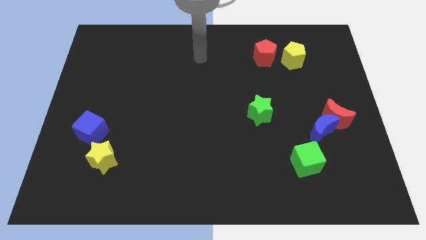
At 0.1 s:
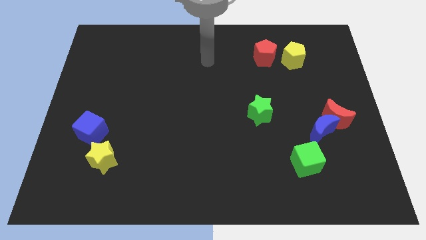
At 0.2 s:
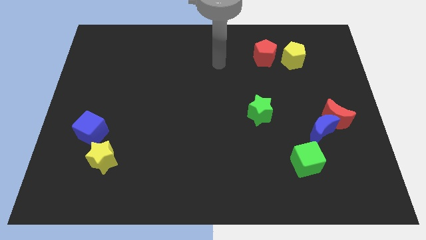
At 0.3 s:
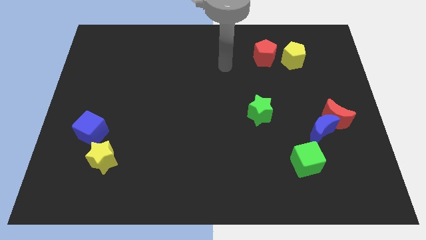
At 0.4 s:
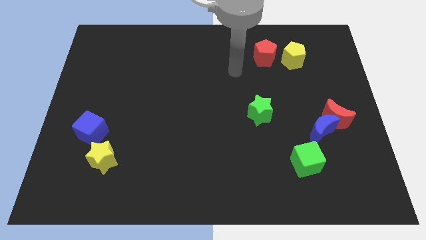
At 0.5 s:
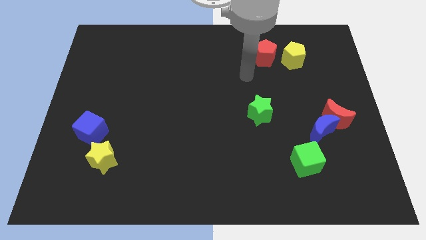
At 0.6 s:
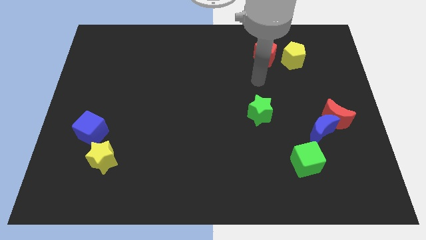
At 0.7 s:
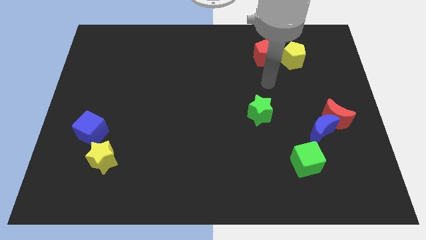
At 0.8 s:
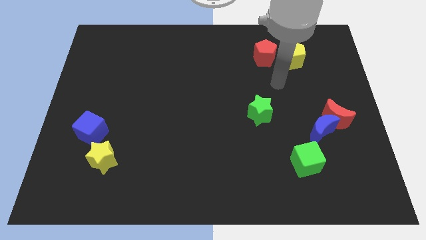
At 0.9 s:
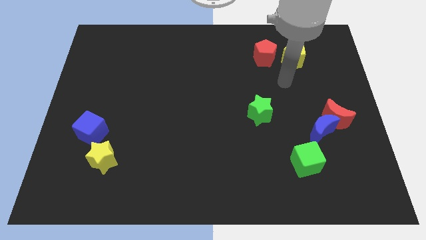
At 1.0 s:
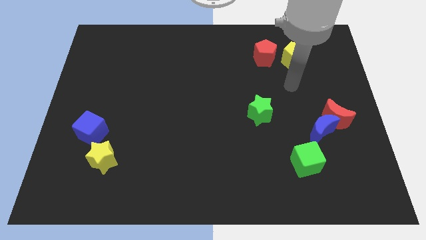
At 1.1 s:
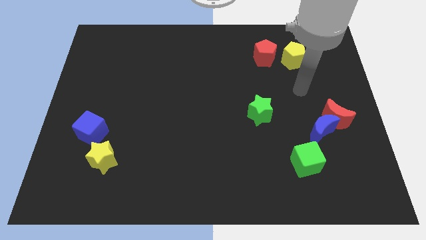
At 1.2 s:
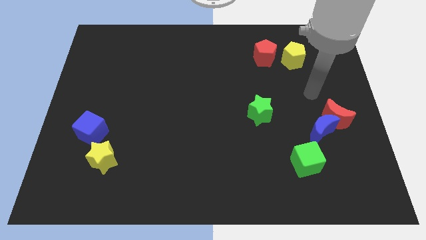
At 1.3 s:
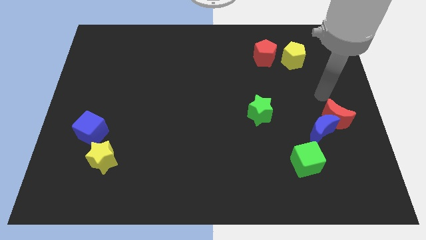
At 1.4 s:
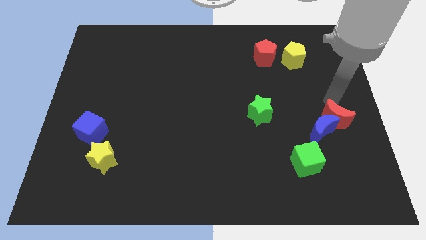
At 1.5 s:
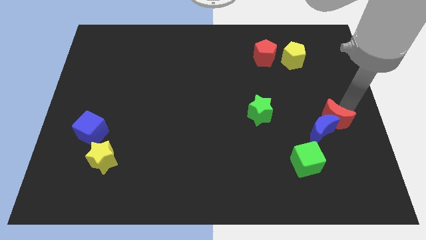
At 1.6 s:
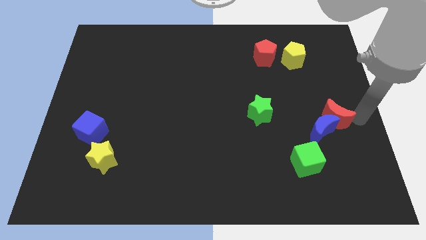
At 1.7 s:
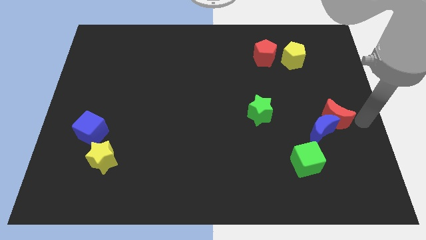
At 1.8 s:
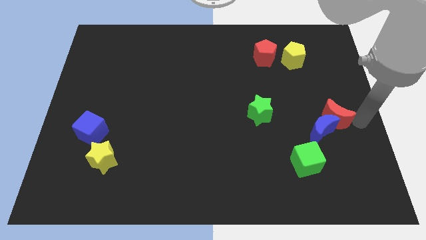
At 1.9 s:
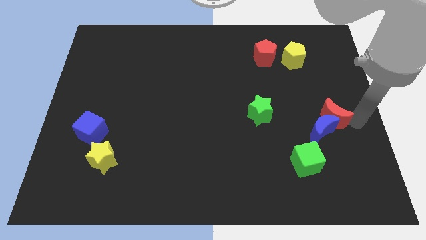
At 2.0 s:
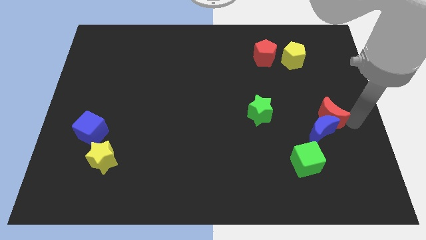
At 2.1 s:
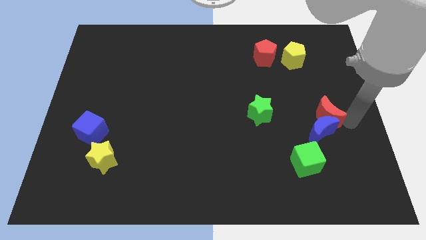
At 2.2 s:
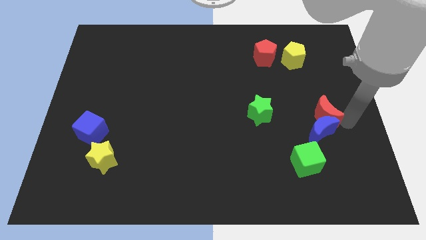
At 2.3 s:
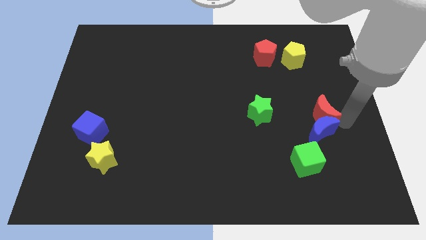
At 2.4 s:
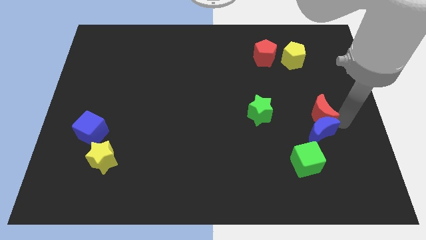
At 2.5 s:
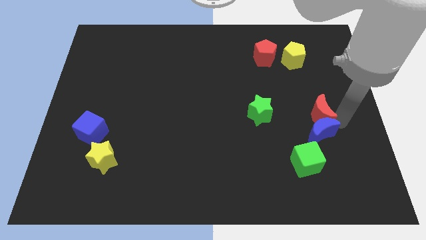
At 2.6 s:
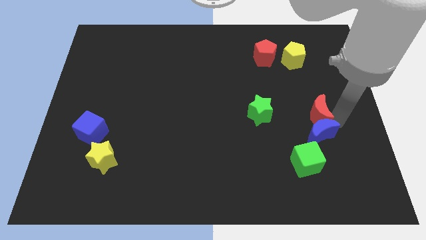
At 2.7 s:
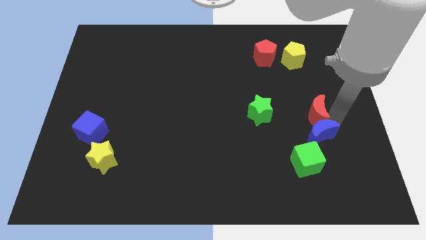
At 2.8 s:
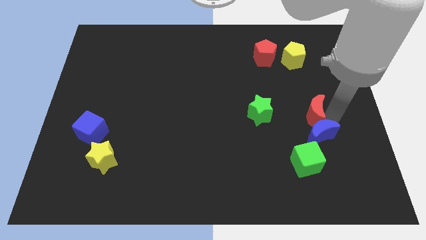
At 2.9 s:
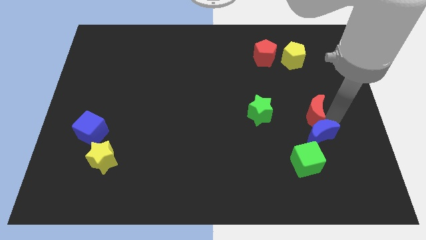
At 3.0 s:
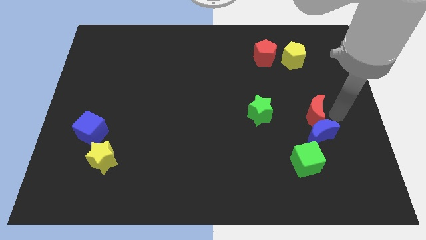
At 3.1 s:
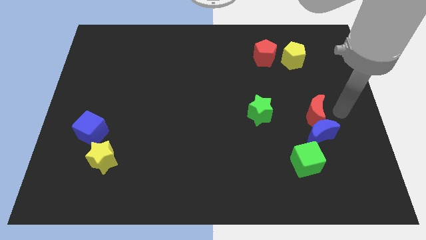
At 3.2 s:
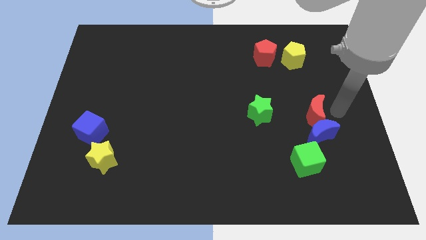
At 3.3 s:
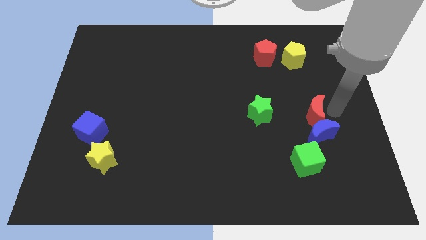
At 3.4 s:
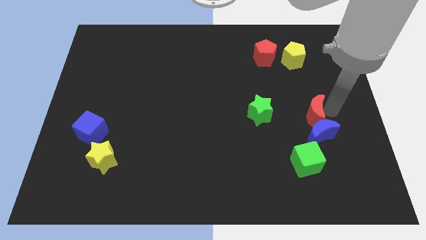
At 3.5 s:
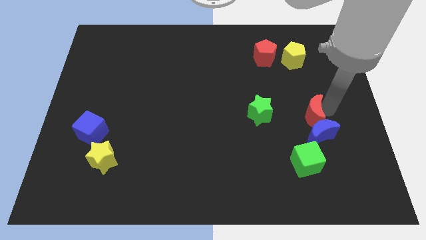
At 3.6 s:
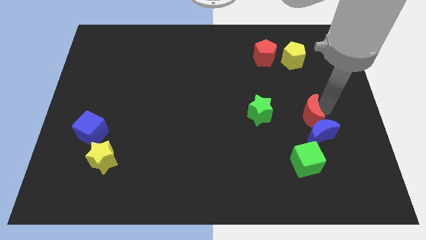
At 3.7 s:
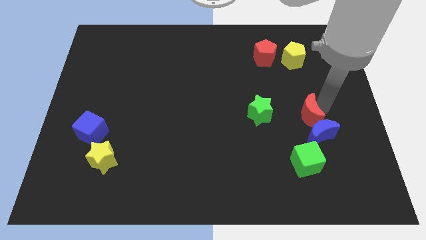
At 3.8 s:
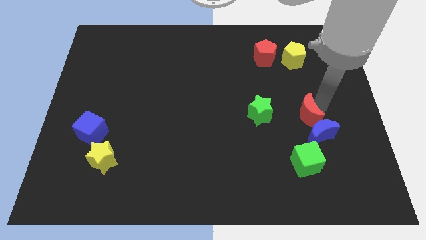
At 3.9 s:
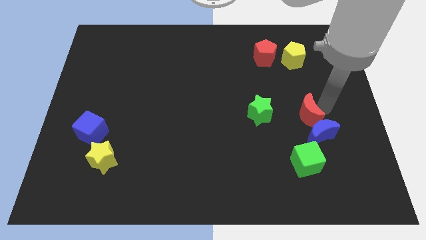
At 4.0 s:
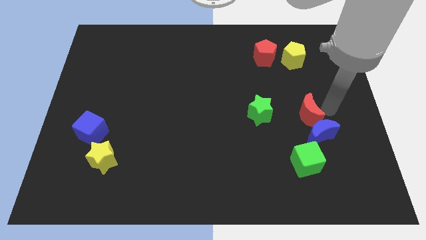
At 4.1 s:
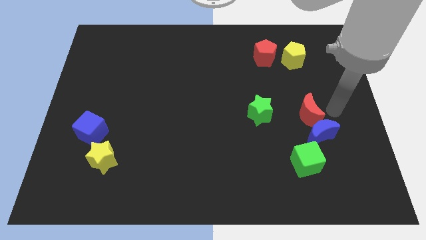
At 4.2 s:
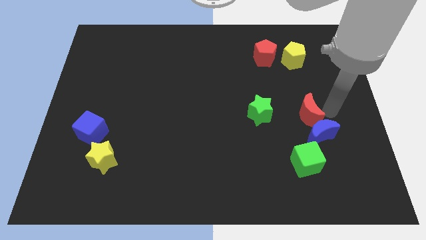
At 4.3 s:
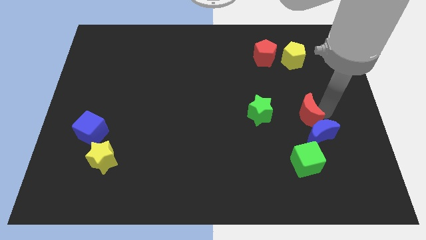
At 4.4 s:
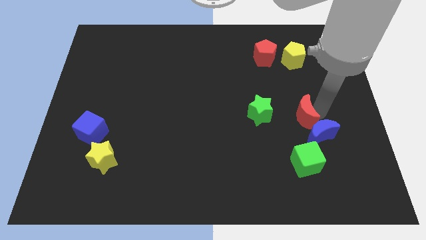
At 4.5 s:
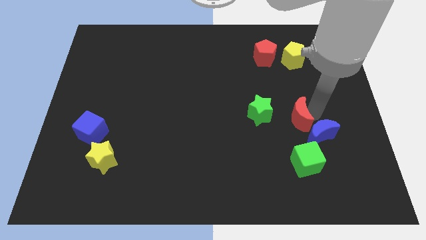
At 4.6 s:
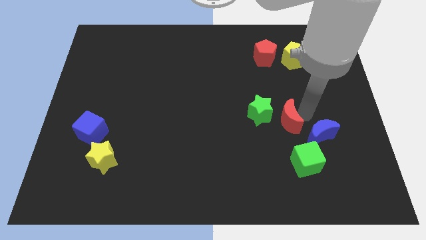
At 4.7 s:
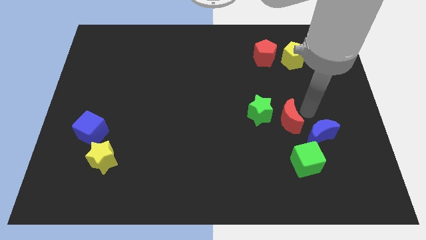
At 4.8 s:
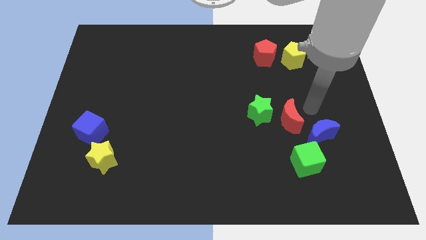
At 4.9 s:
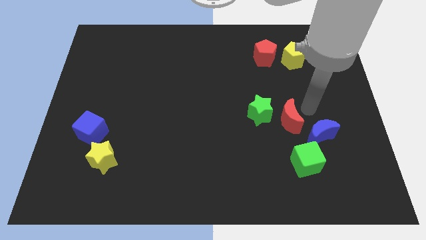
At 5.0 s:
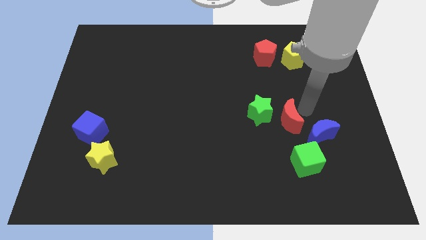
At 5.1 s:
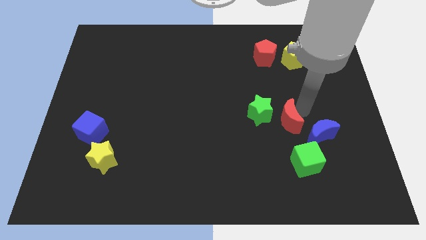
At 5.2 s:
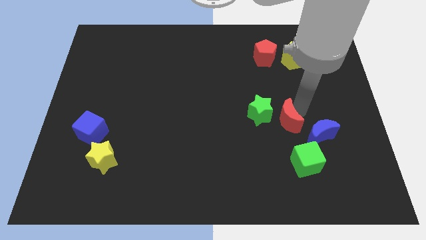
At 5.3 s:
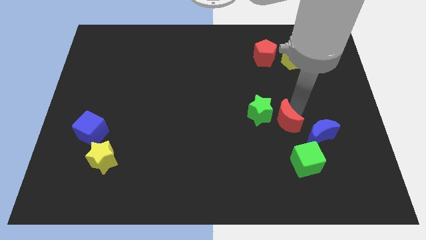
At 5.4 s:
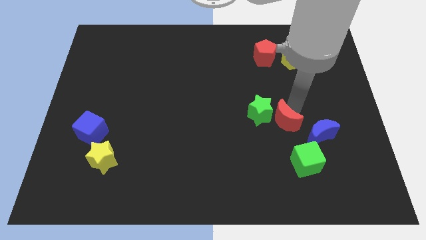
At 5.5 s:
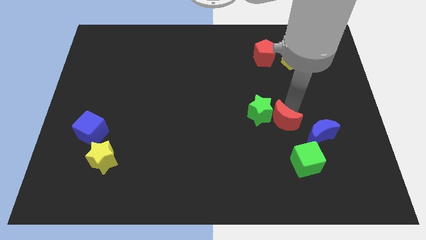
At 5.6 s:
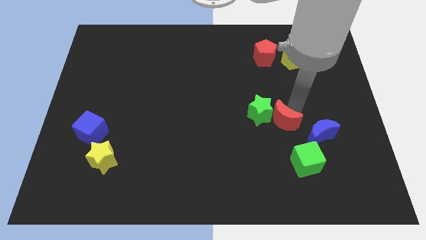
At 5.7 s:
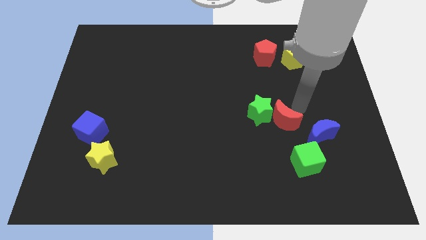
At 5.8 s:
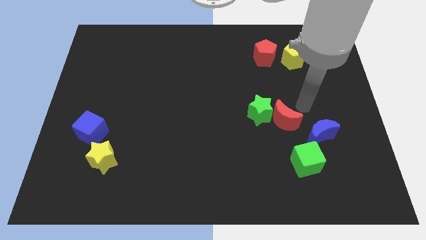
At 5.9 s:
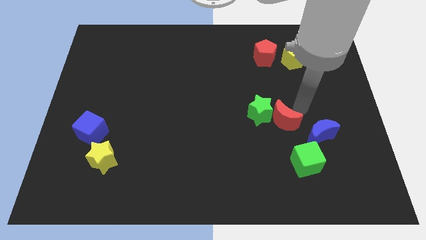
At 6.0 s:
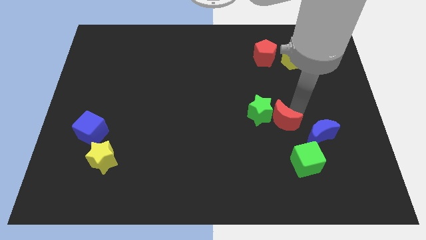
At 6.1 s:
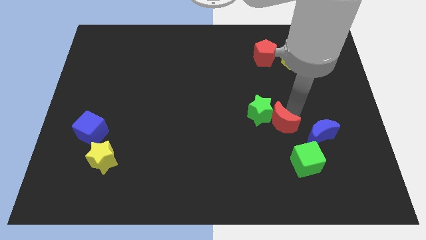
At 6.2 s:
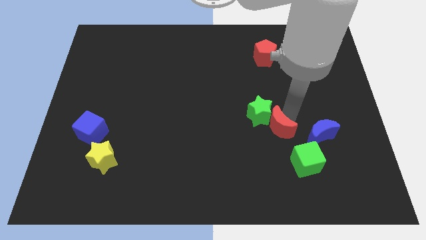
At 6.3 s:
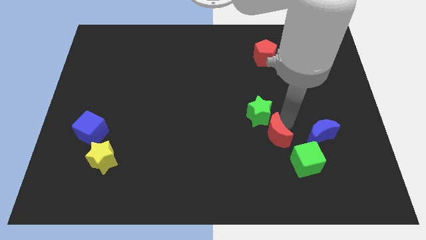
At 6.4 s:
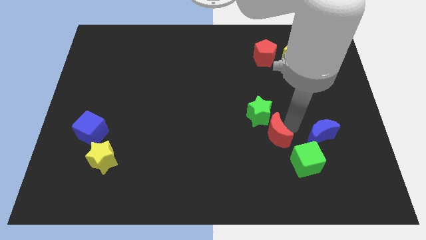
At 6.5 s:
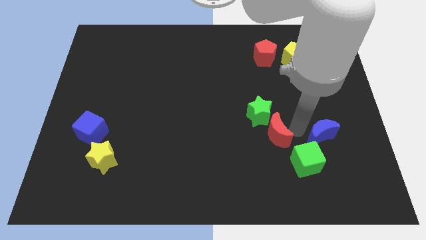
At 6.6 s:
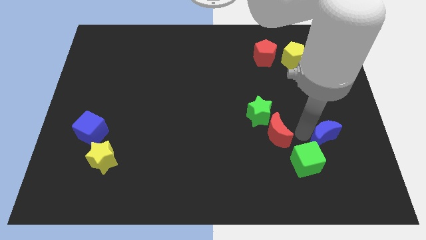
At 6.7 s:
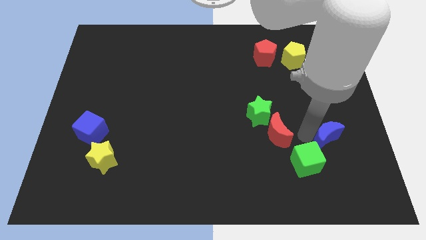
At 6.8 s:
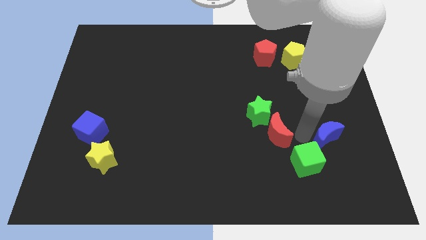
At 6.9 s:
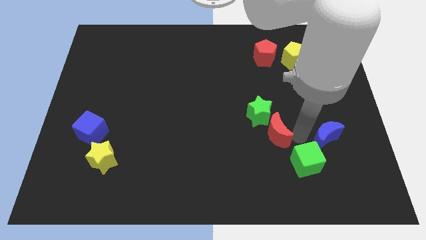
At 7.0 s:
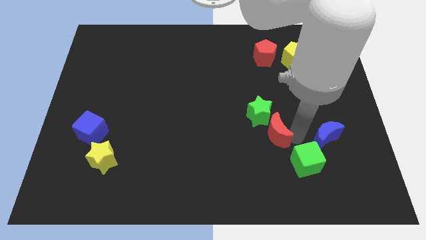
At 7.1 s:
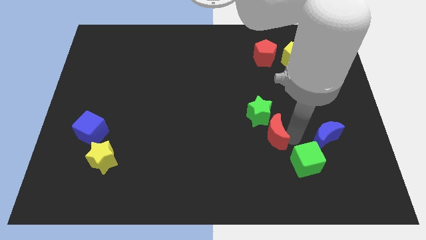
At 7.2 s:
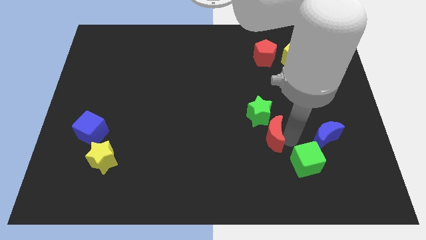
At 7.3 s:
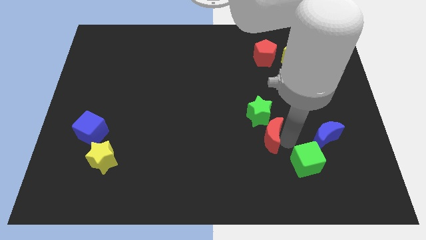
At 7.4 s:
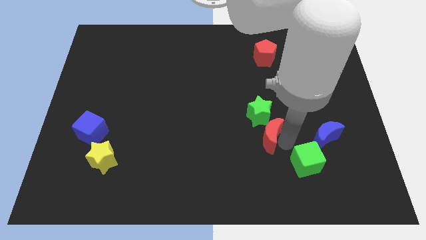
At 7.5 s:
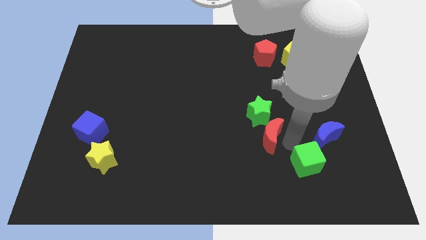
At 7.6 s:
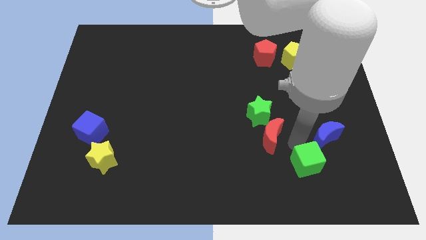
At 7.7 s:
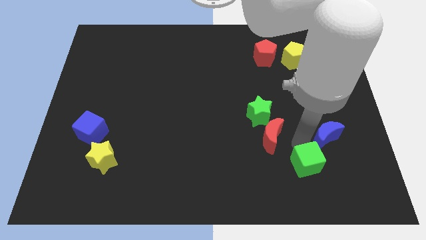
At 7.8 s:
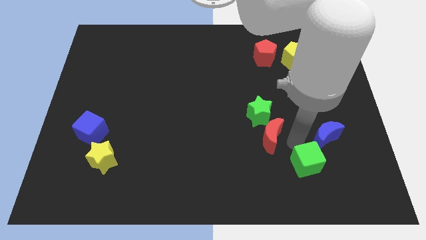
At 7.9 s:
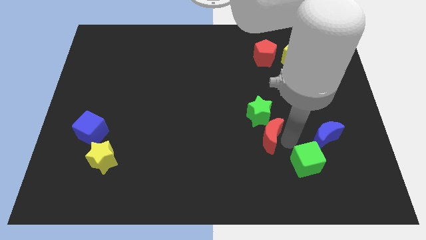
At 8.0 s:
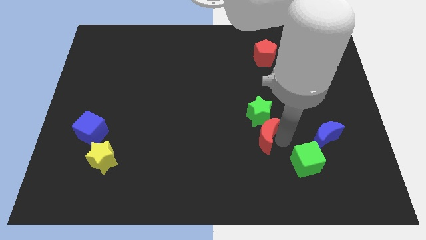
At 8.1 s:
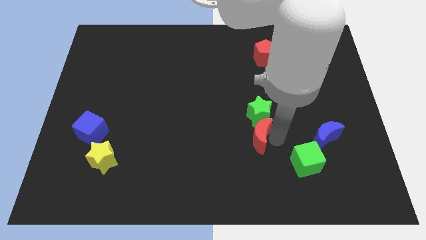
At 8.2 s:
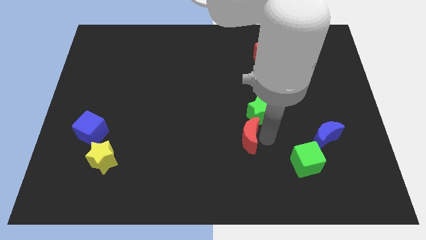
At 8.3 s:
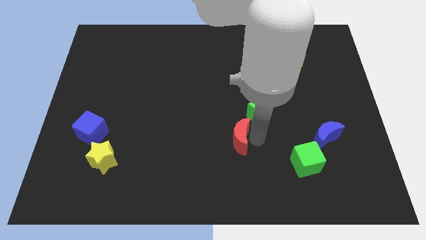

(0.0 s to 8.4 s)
slide the red moon left
